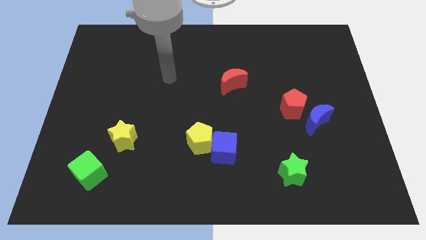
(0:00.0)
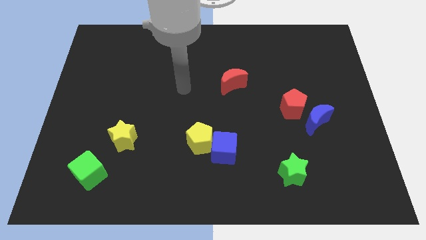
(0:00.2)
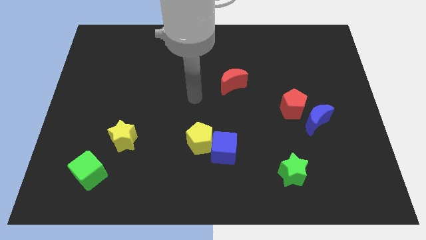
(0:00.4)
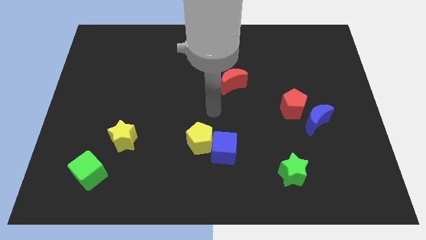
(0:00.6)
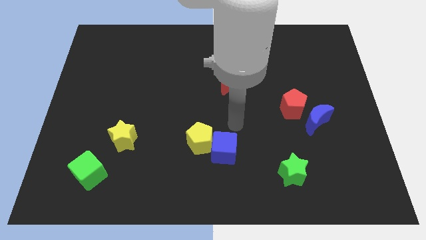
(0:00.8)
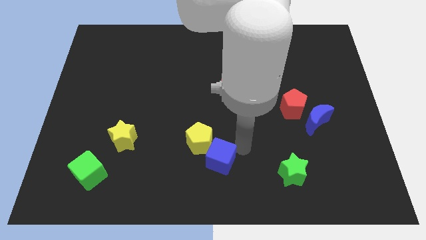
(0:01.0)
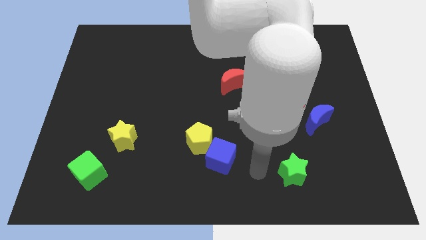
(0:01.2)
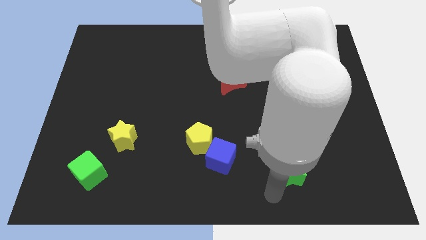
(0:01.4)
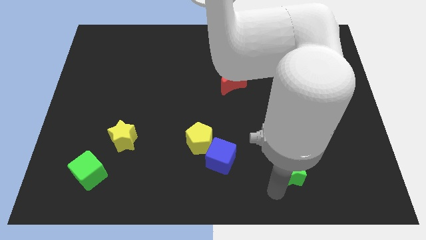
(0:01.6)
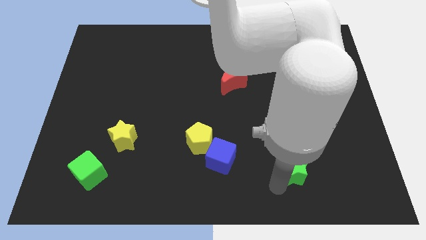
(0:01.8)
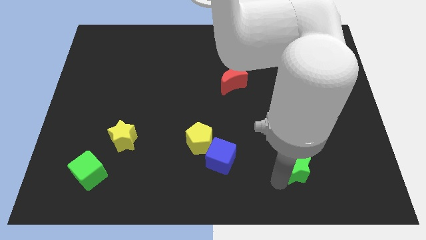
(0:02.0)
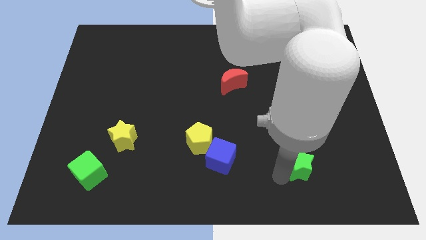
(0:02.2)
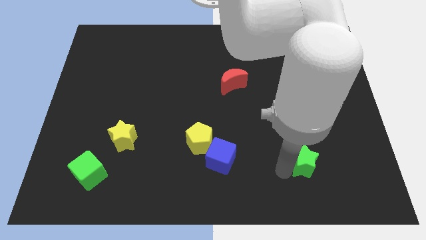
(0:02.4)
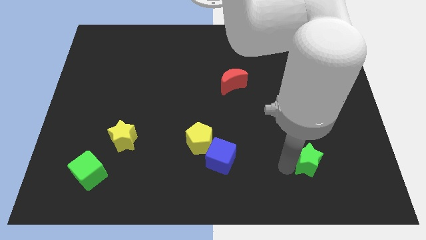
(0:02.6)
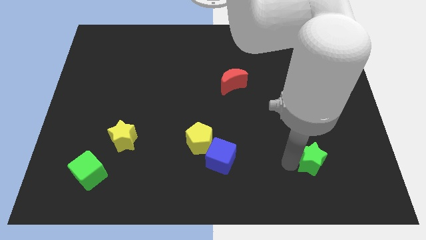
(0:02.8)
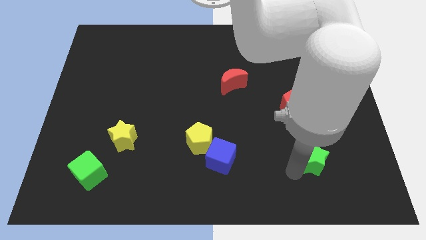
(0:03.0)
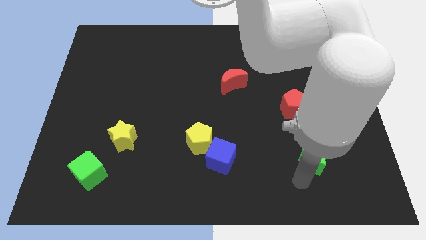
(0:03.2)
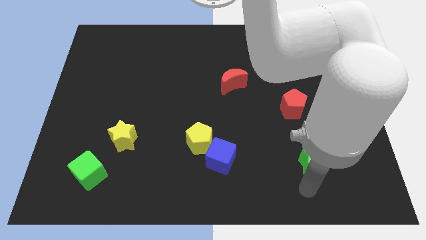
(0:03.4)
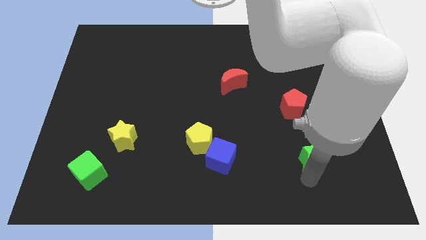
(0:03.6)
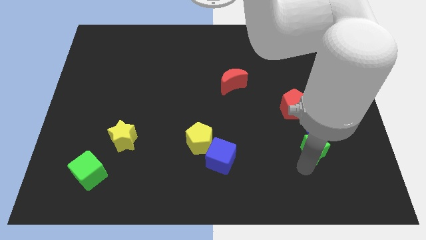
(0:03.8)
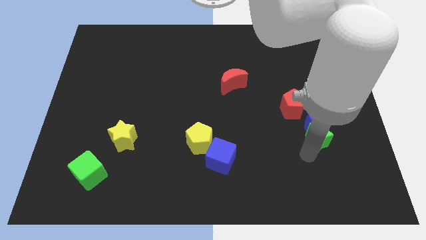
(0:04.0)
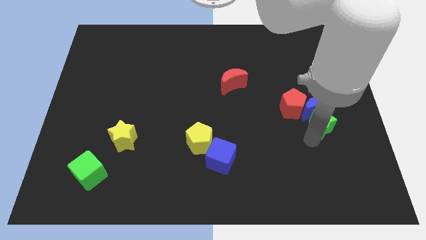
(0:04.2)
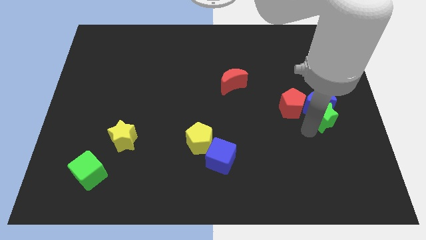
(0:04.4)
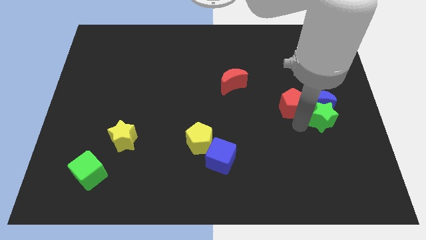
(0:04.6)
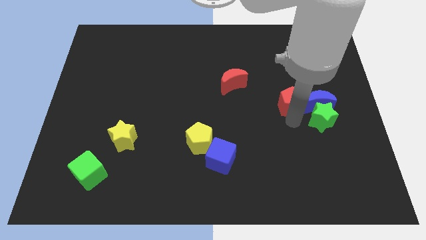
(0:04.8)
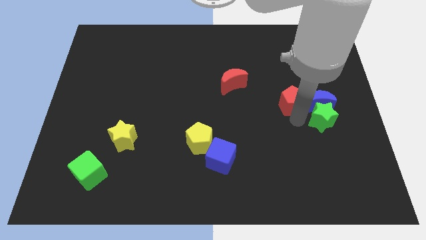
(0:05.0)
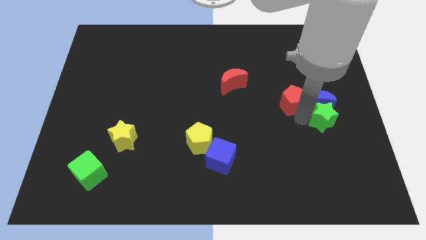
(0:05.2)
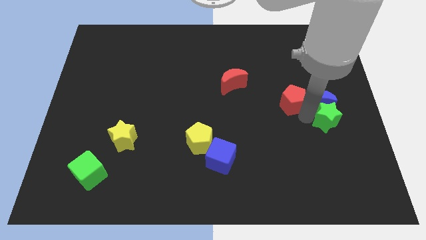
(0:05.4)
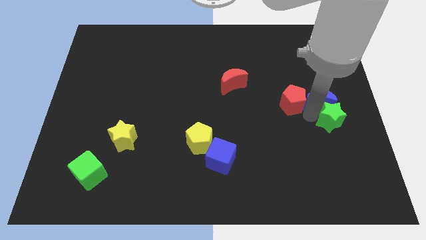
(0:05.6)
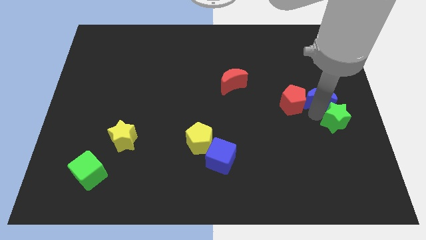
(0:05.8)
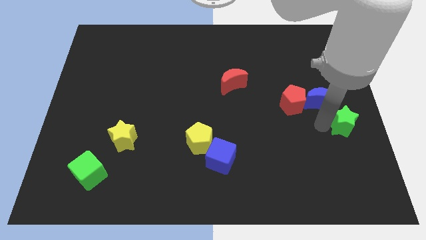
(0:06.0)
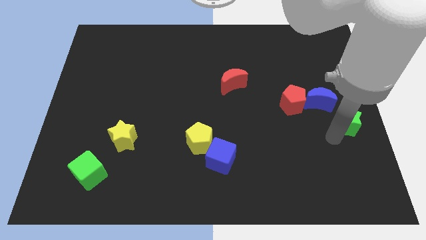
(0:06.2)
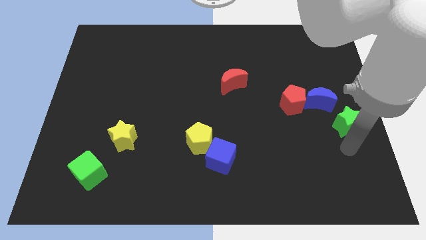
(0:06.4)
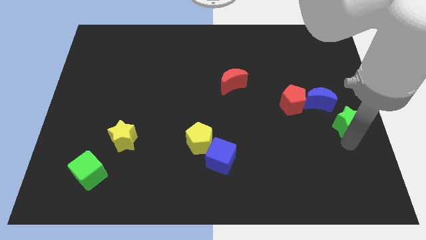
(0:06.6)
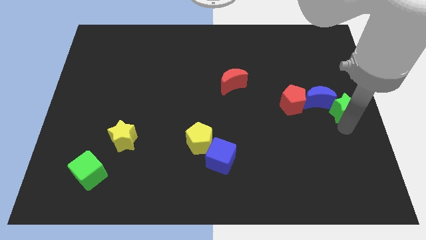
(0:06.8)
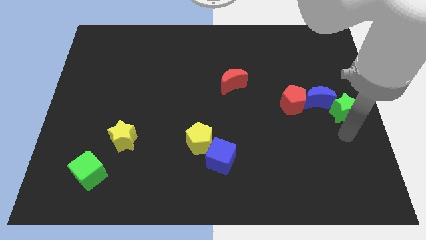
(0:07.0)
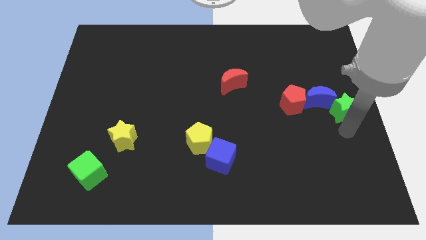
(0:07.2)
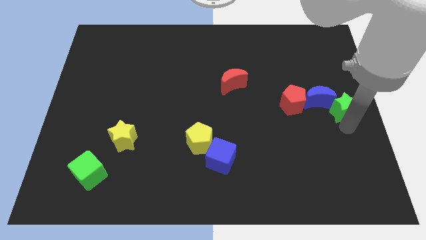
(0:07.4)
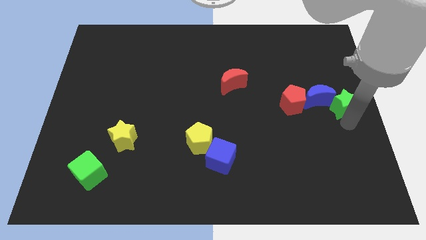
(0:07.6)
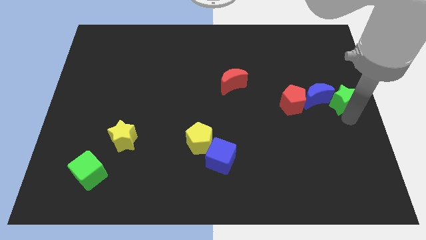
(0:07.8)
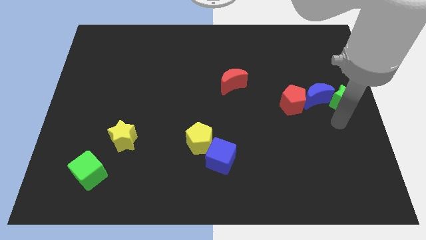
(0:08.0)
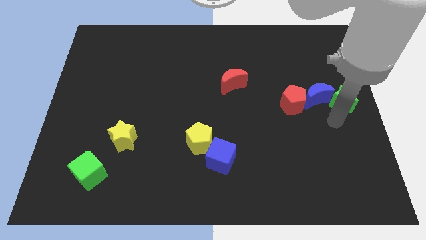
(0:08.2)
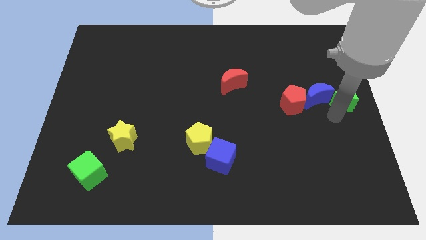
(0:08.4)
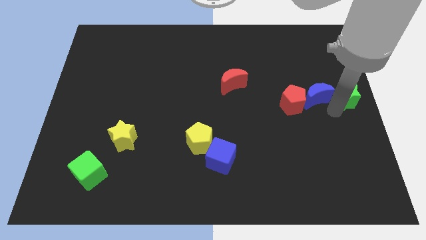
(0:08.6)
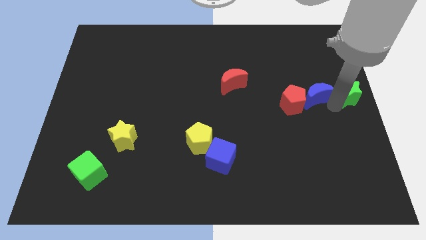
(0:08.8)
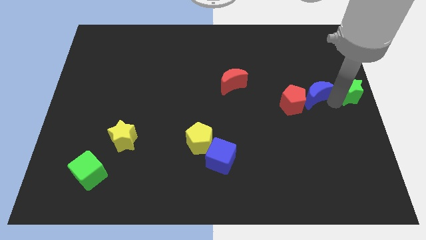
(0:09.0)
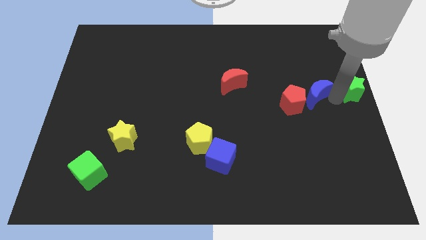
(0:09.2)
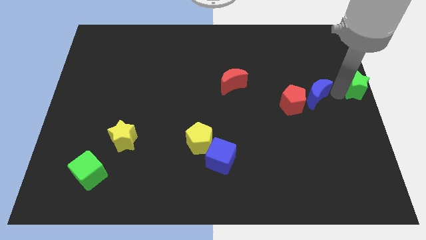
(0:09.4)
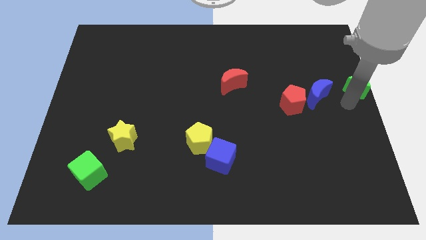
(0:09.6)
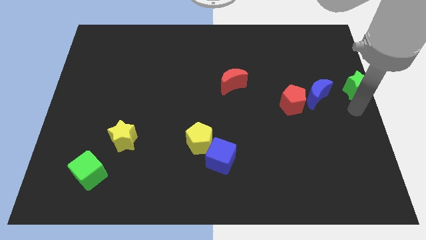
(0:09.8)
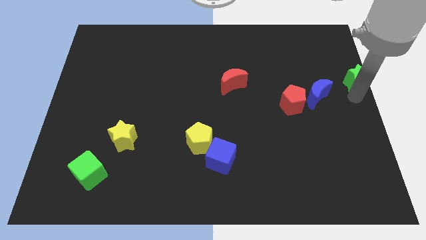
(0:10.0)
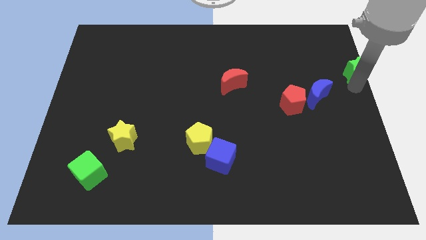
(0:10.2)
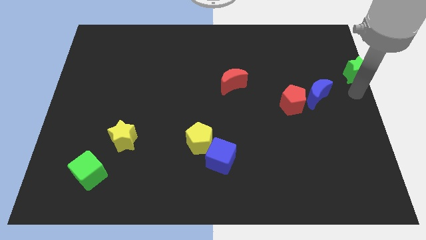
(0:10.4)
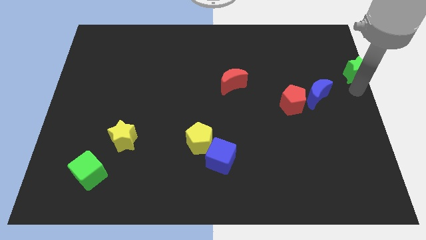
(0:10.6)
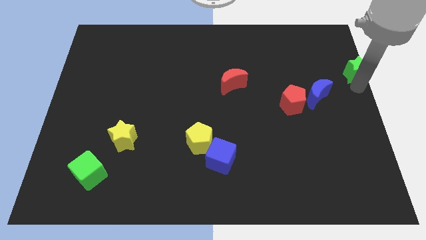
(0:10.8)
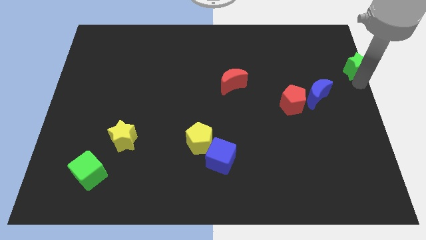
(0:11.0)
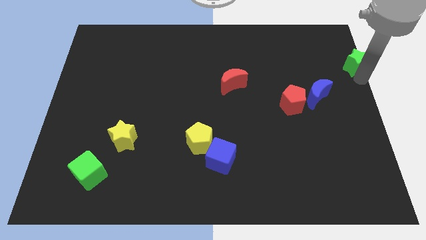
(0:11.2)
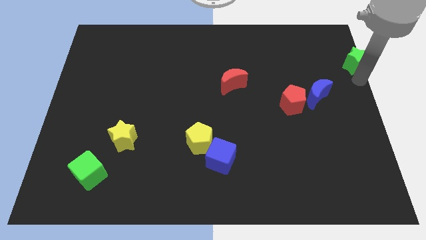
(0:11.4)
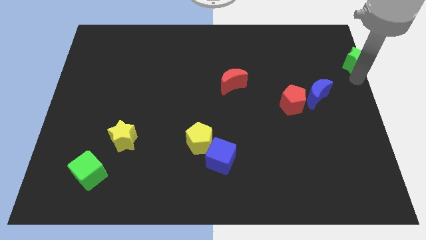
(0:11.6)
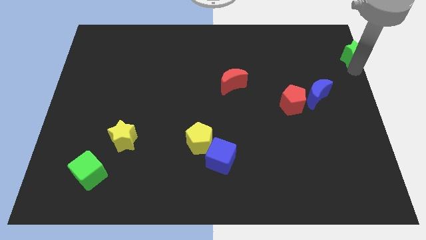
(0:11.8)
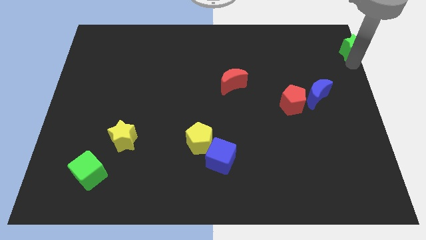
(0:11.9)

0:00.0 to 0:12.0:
put the green star to the upper right corner
